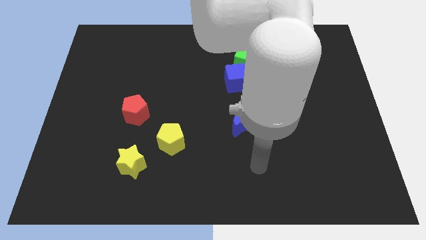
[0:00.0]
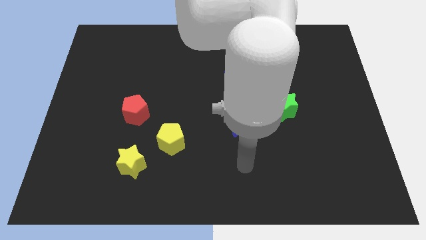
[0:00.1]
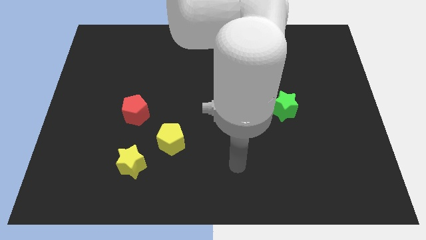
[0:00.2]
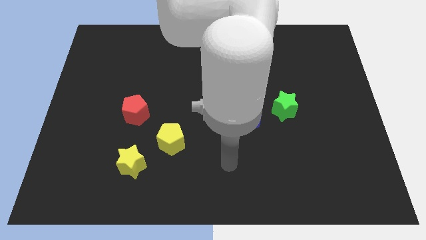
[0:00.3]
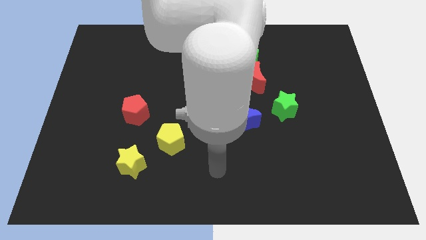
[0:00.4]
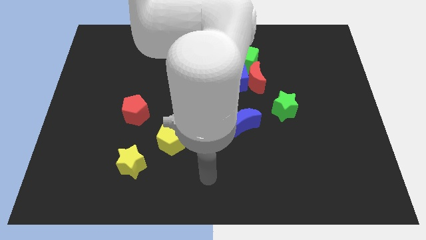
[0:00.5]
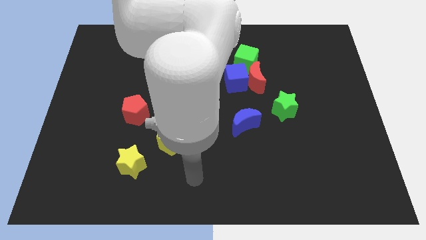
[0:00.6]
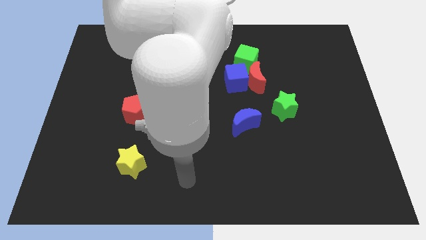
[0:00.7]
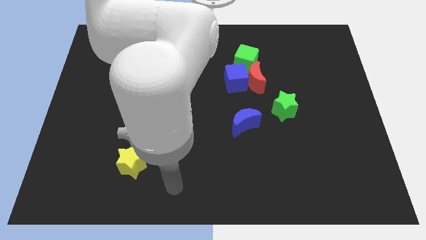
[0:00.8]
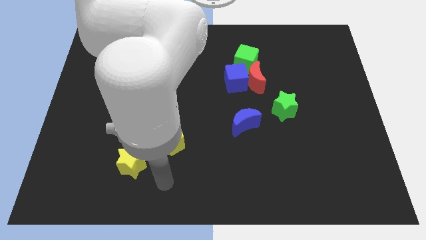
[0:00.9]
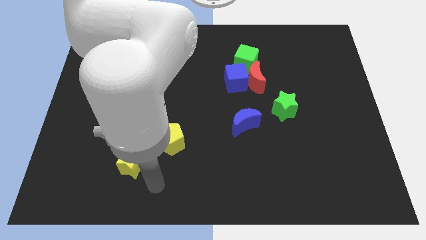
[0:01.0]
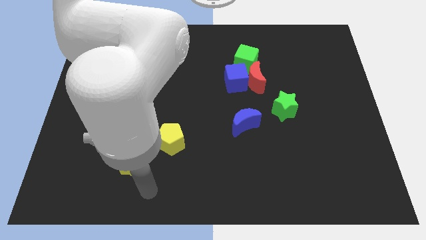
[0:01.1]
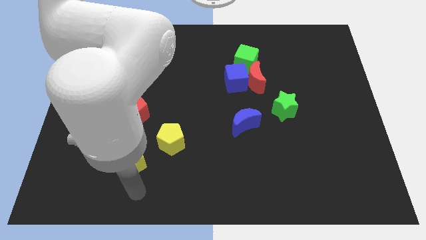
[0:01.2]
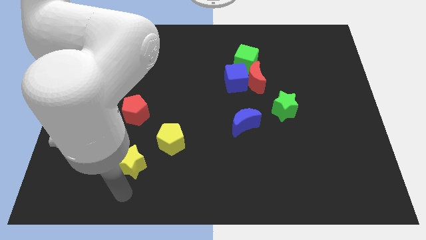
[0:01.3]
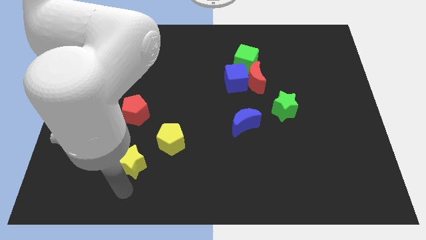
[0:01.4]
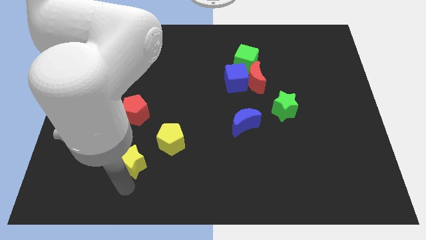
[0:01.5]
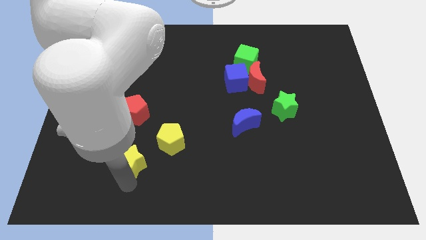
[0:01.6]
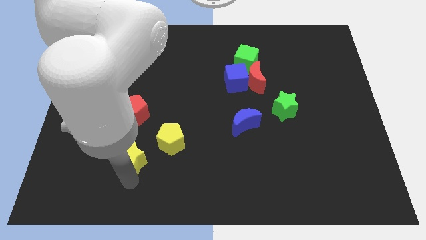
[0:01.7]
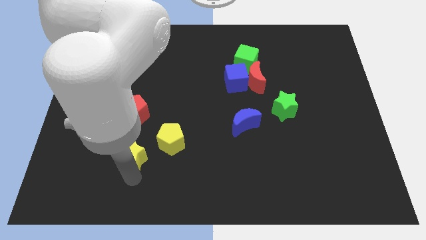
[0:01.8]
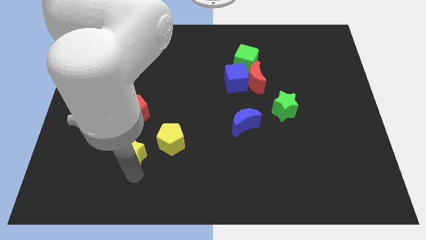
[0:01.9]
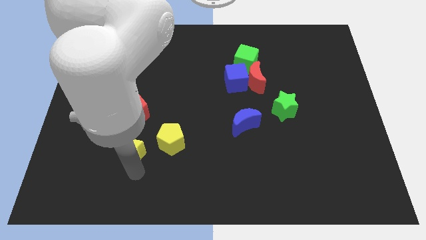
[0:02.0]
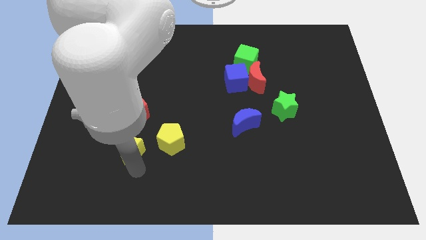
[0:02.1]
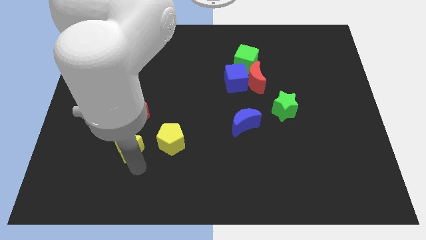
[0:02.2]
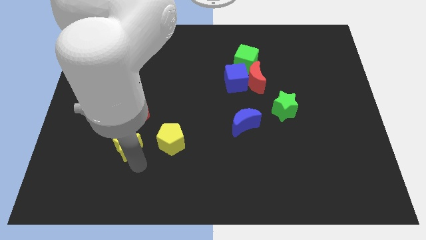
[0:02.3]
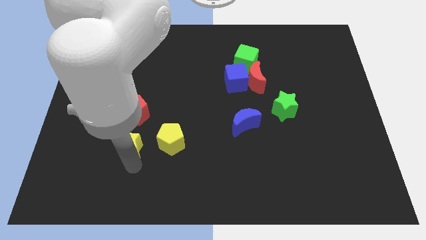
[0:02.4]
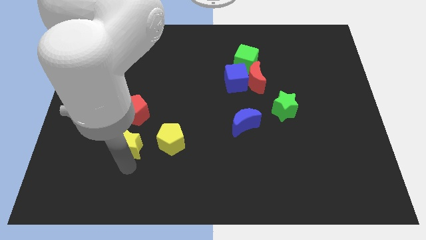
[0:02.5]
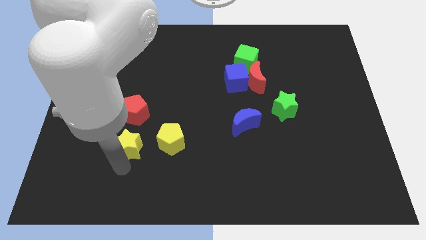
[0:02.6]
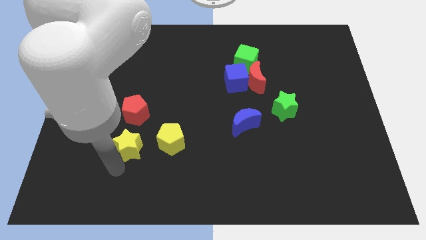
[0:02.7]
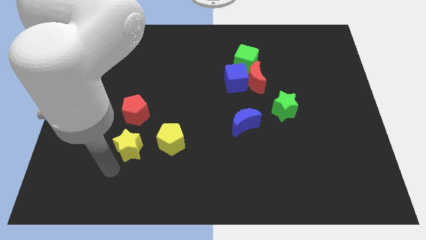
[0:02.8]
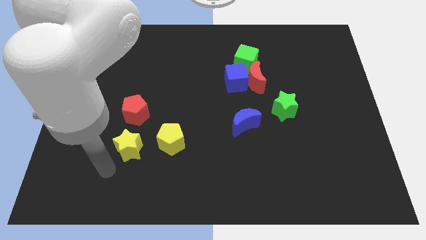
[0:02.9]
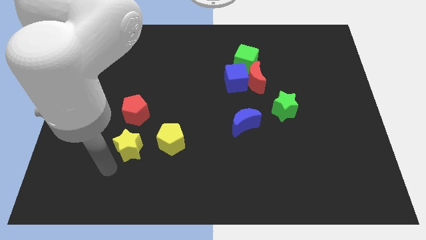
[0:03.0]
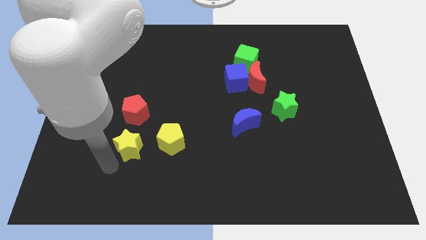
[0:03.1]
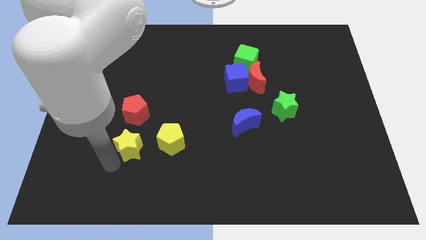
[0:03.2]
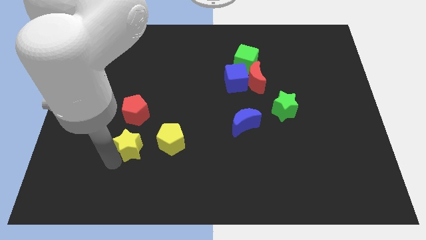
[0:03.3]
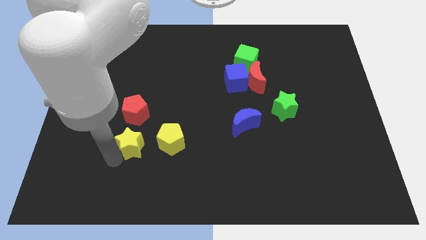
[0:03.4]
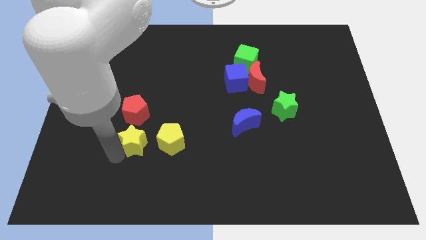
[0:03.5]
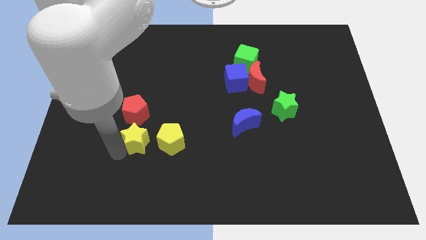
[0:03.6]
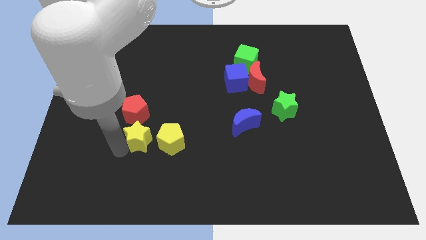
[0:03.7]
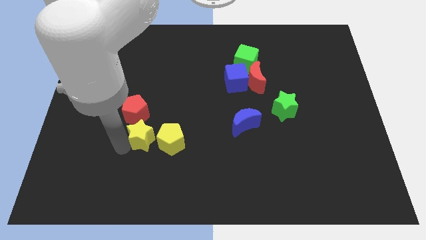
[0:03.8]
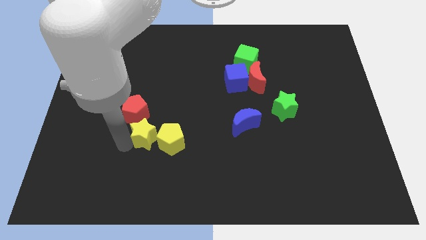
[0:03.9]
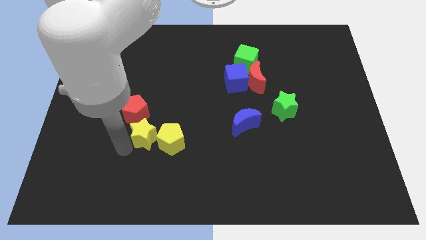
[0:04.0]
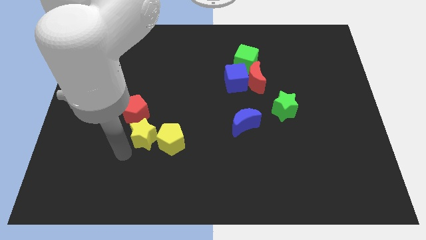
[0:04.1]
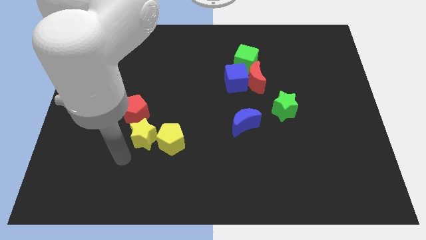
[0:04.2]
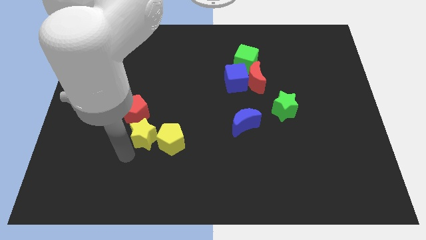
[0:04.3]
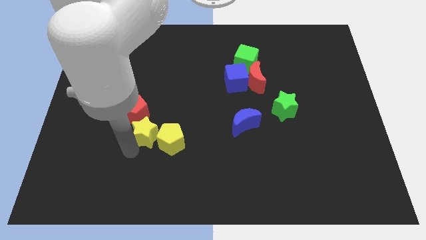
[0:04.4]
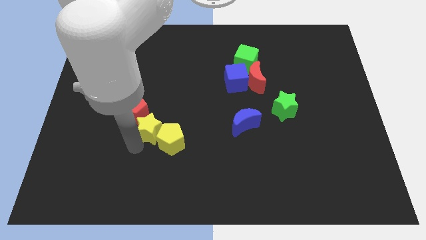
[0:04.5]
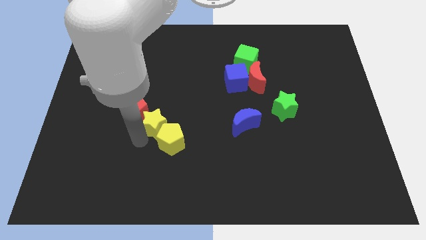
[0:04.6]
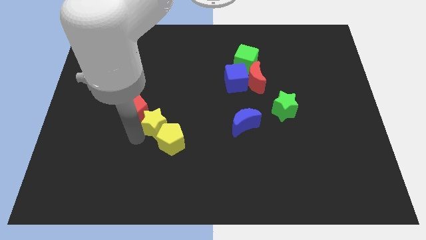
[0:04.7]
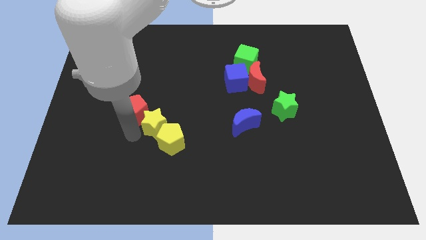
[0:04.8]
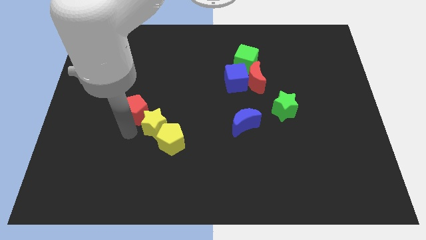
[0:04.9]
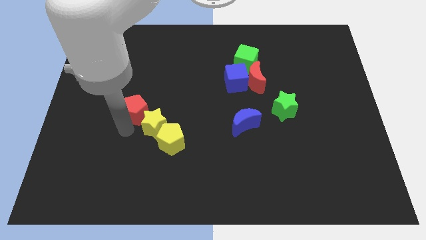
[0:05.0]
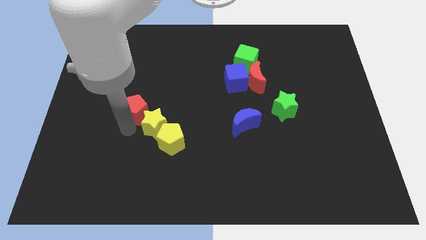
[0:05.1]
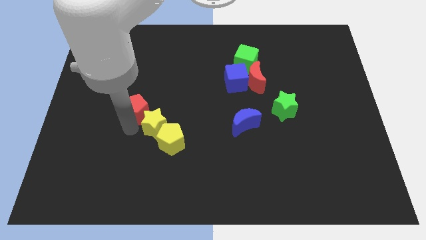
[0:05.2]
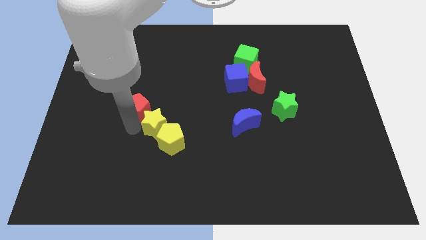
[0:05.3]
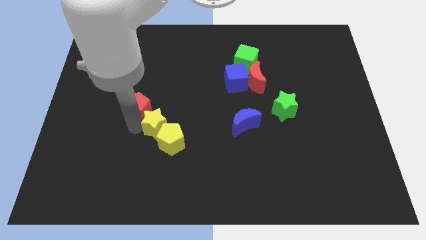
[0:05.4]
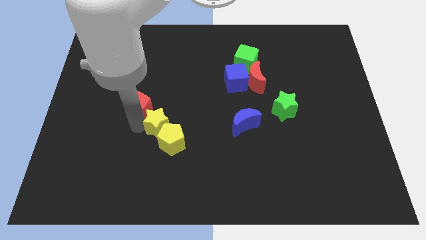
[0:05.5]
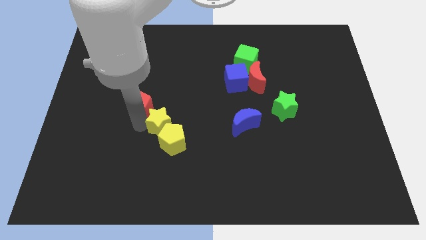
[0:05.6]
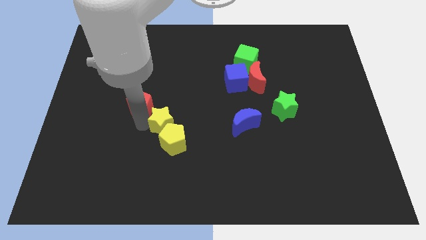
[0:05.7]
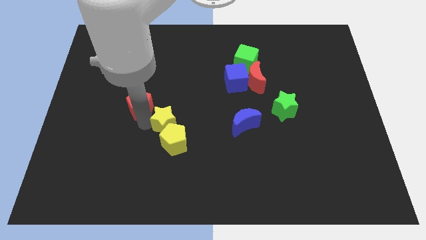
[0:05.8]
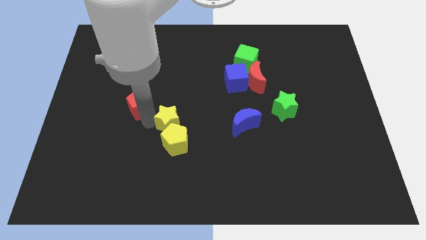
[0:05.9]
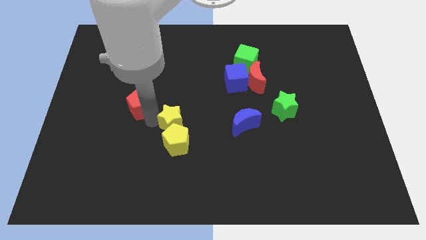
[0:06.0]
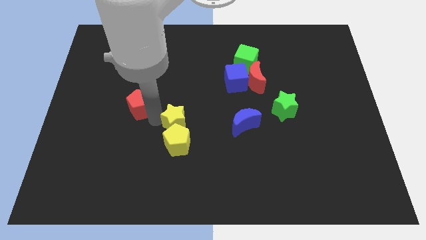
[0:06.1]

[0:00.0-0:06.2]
push the yellow star to the left side of the blue moon
